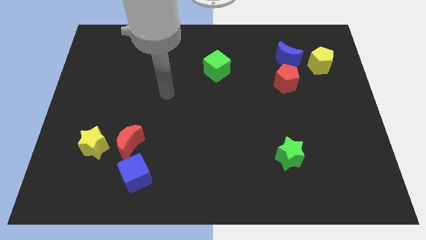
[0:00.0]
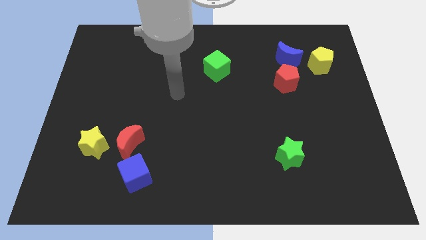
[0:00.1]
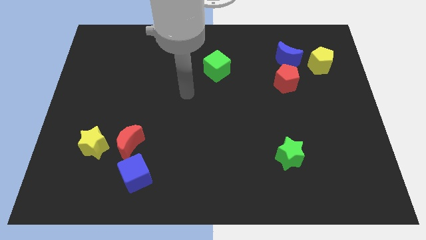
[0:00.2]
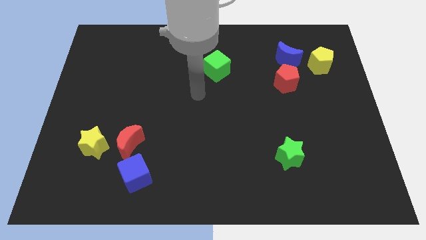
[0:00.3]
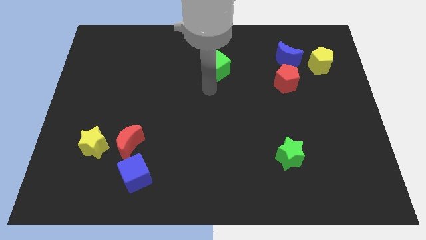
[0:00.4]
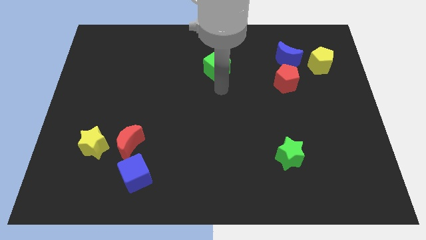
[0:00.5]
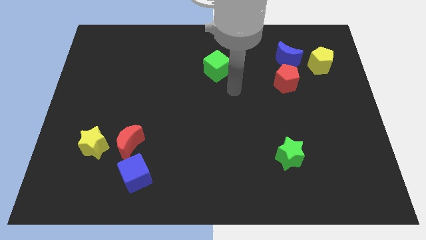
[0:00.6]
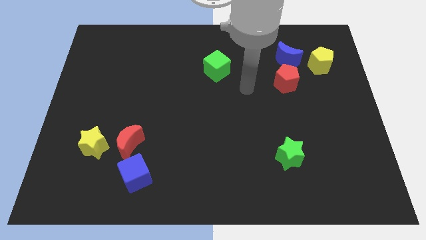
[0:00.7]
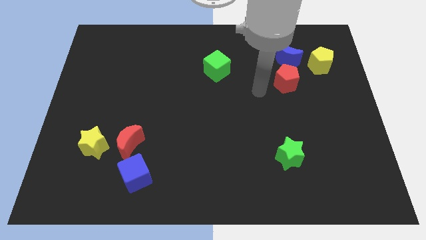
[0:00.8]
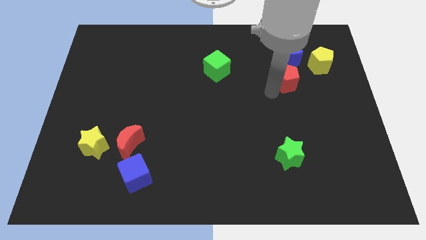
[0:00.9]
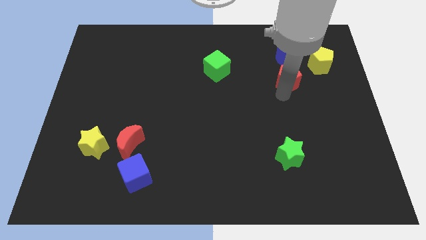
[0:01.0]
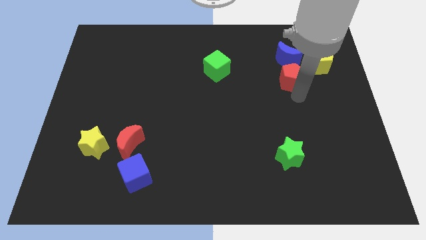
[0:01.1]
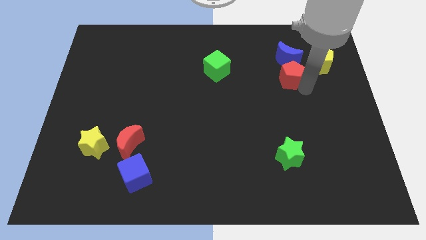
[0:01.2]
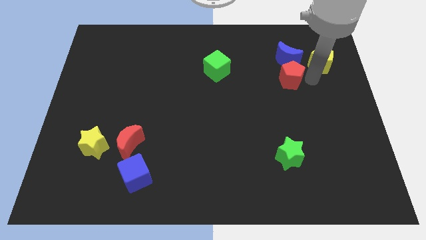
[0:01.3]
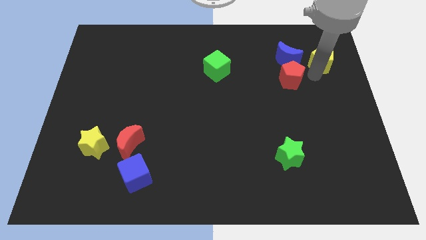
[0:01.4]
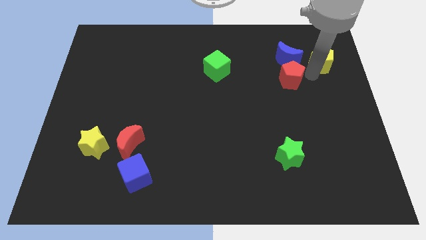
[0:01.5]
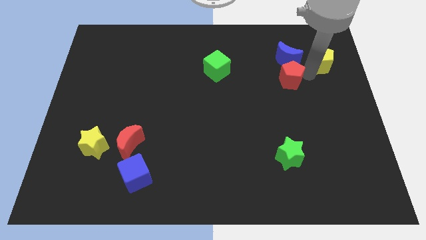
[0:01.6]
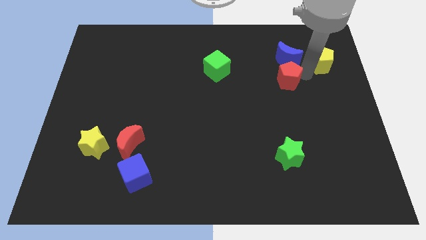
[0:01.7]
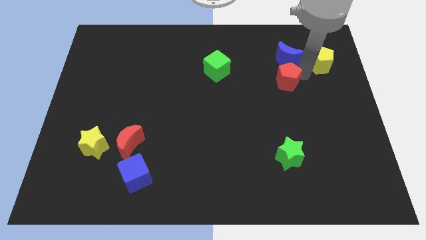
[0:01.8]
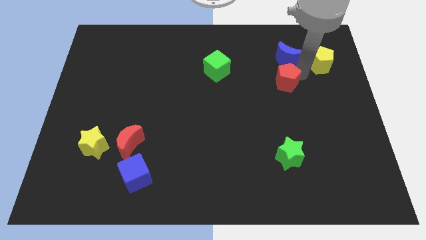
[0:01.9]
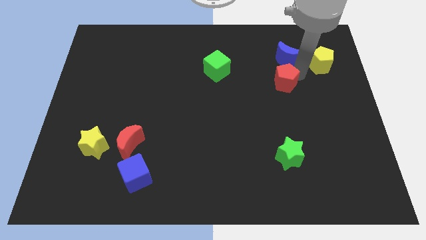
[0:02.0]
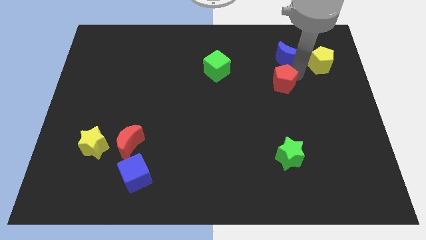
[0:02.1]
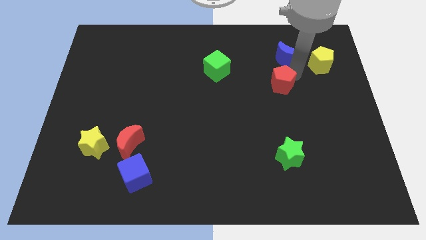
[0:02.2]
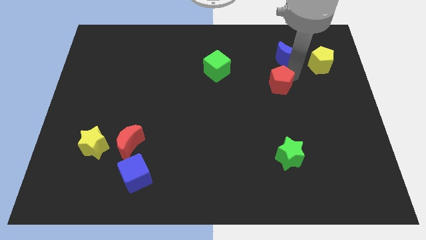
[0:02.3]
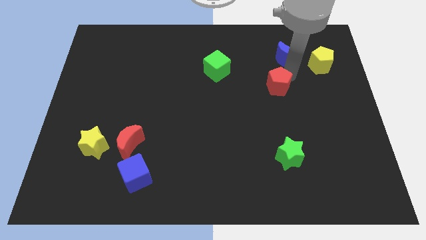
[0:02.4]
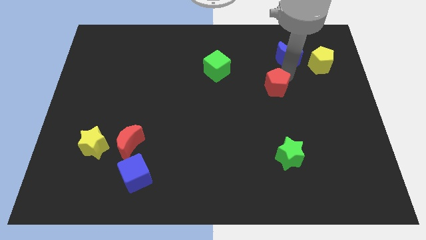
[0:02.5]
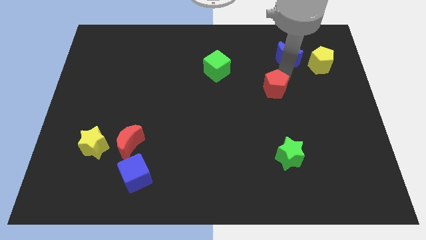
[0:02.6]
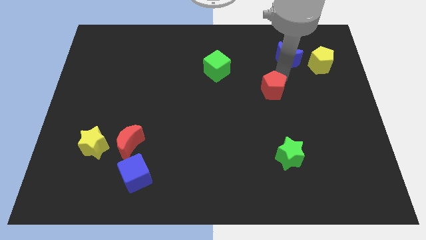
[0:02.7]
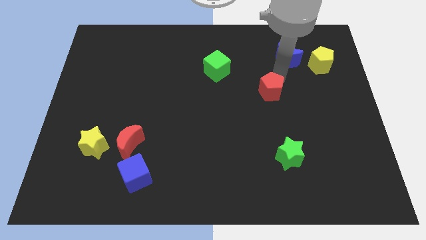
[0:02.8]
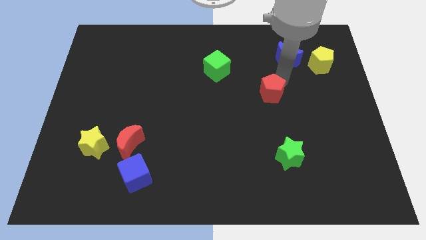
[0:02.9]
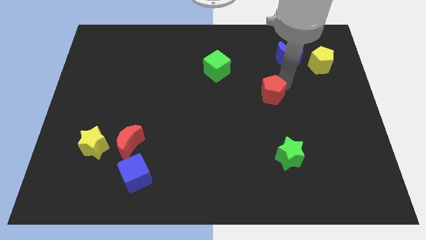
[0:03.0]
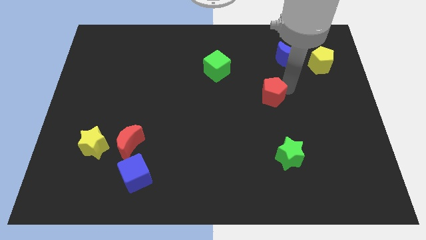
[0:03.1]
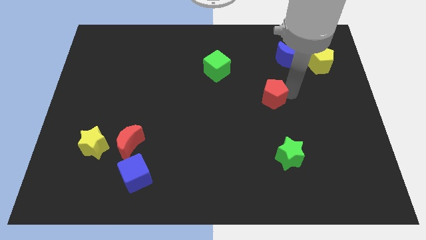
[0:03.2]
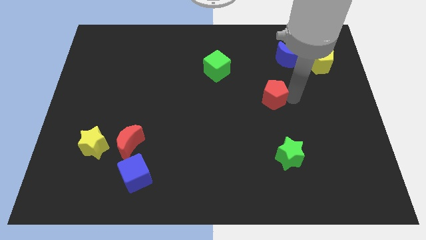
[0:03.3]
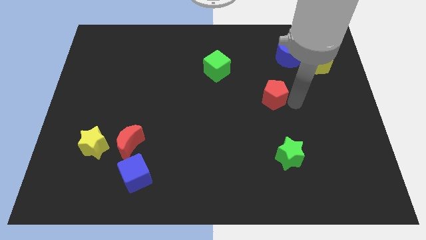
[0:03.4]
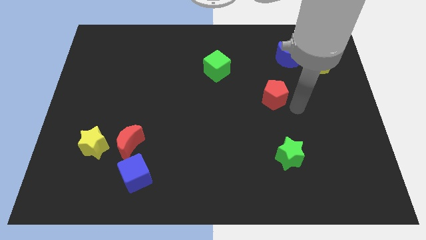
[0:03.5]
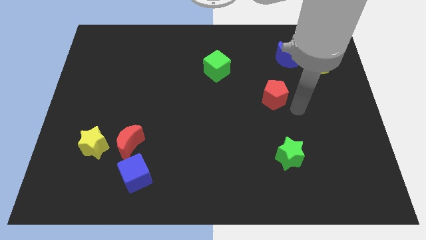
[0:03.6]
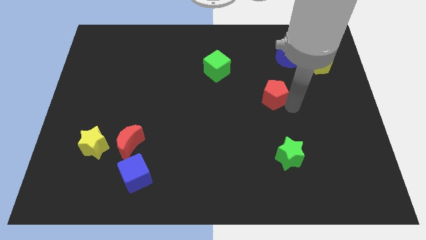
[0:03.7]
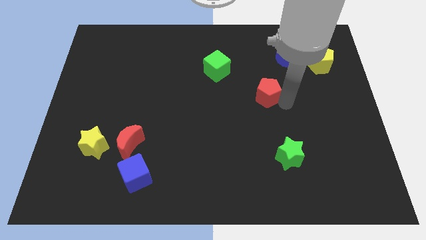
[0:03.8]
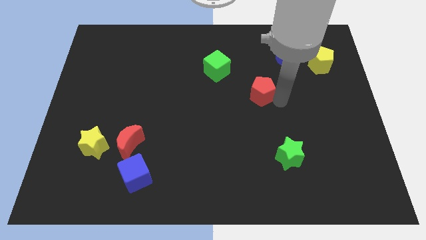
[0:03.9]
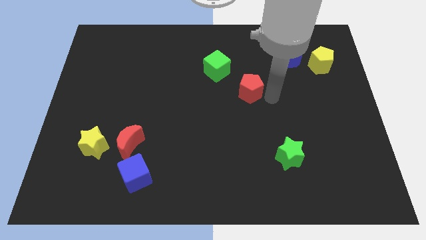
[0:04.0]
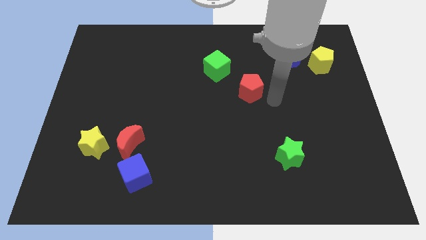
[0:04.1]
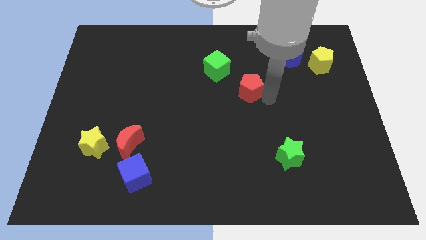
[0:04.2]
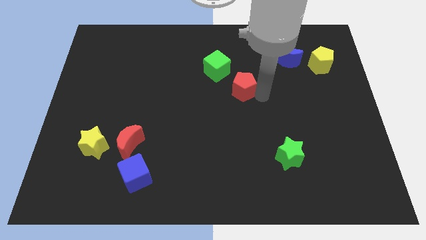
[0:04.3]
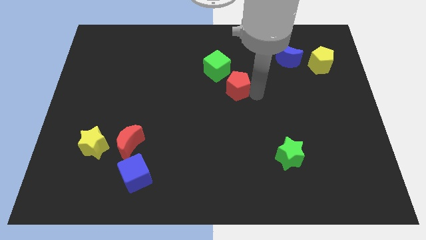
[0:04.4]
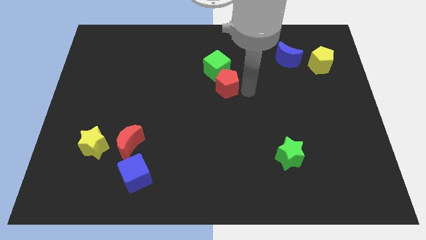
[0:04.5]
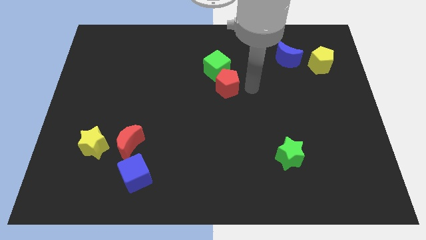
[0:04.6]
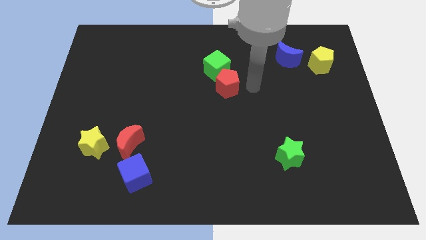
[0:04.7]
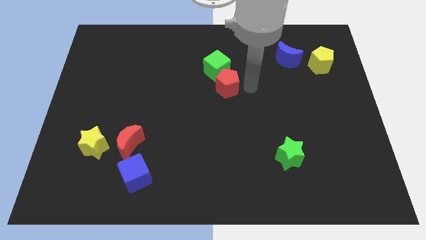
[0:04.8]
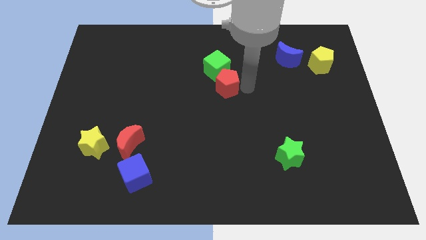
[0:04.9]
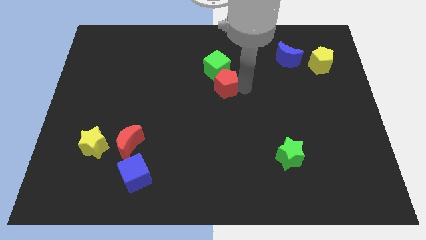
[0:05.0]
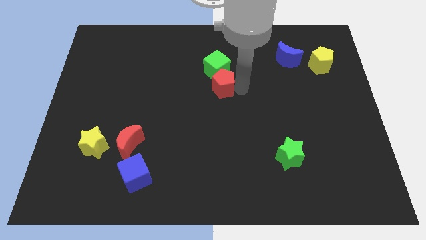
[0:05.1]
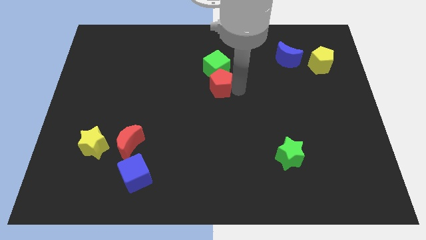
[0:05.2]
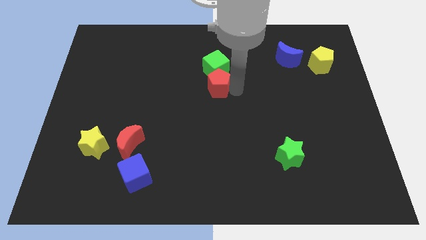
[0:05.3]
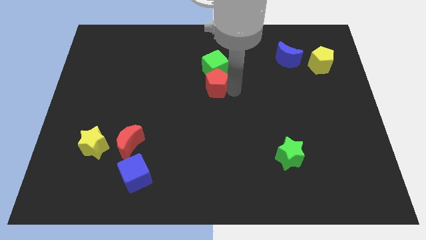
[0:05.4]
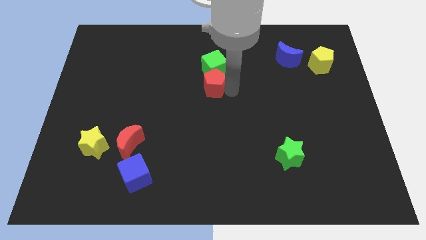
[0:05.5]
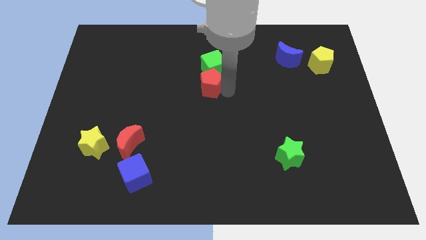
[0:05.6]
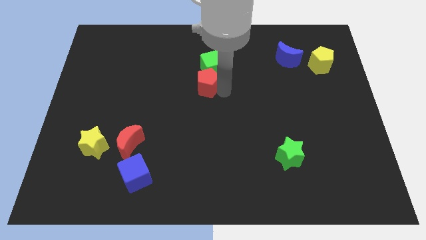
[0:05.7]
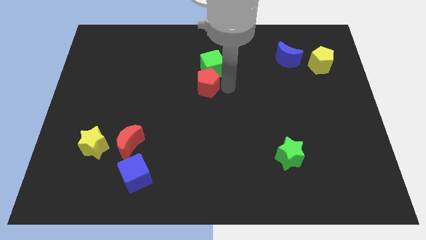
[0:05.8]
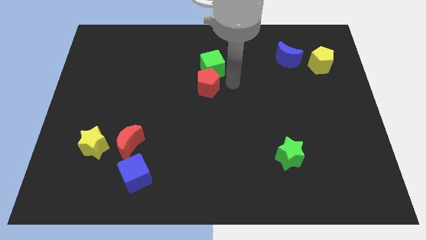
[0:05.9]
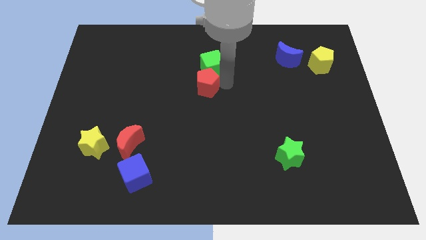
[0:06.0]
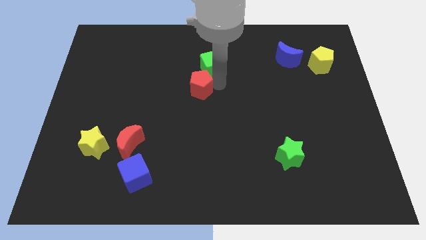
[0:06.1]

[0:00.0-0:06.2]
slide the red pentagon left

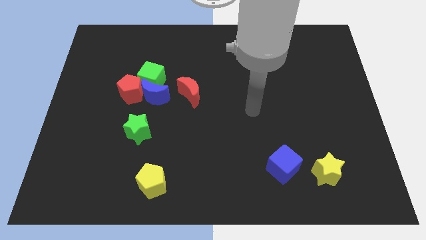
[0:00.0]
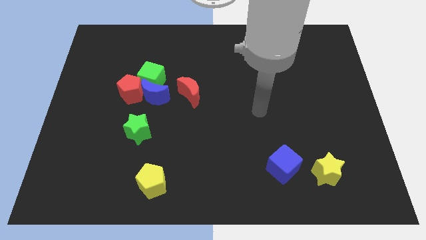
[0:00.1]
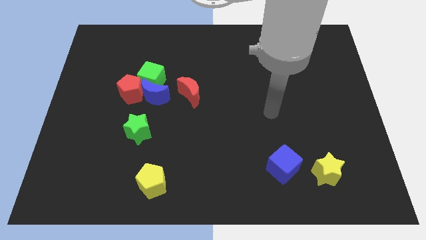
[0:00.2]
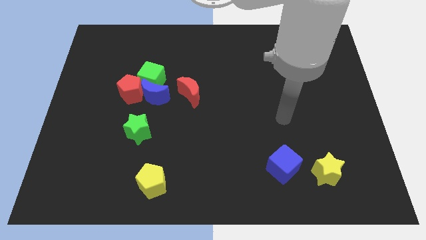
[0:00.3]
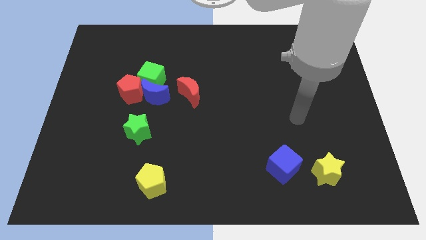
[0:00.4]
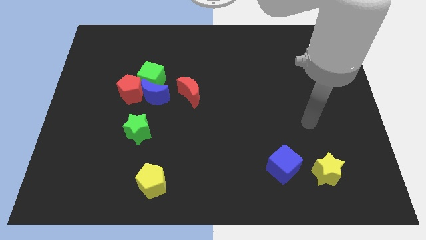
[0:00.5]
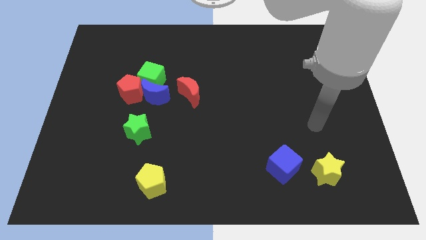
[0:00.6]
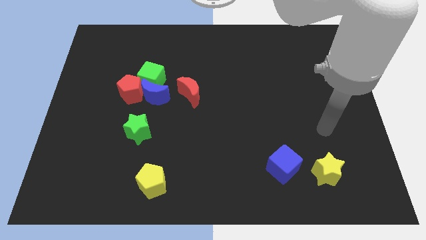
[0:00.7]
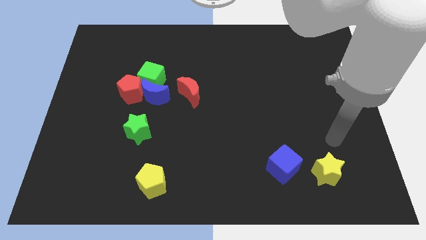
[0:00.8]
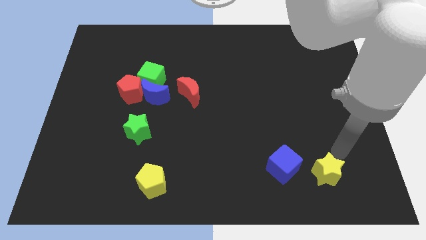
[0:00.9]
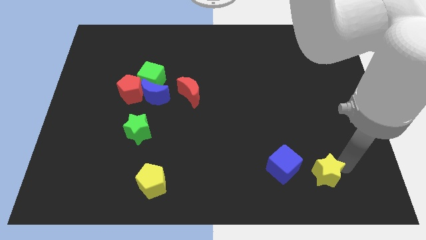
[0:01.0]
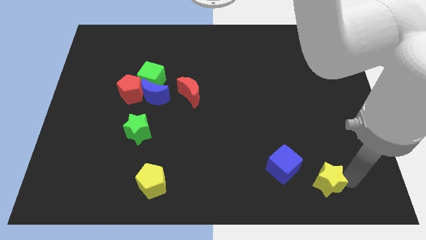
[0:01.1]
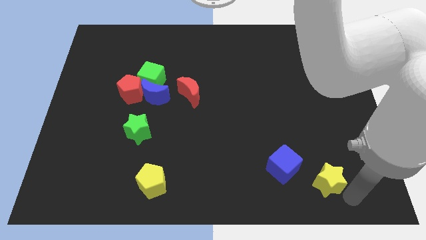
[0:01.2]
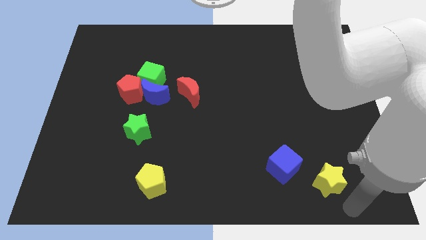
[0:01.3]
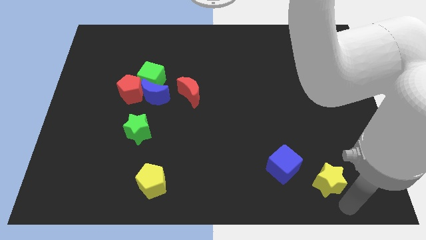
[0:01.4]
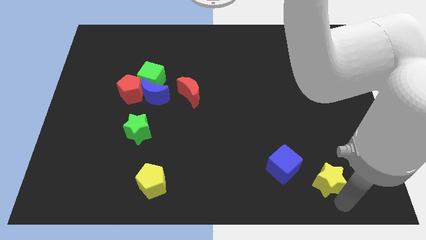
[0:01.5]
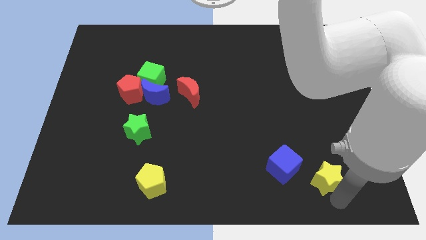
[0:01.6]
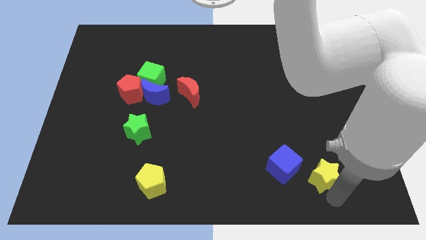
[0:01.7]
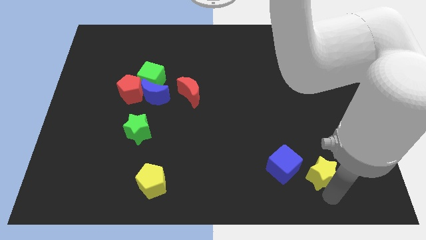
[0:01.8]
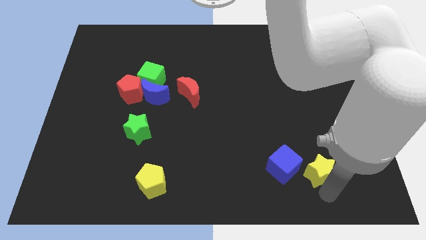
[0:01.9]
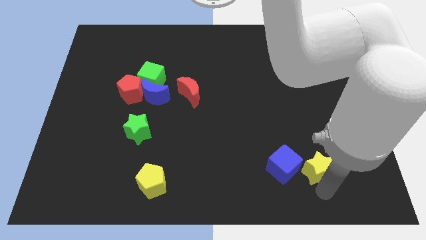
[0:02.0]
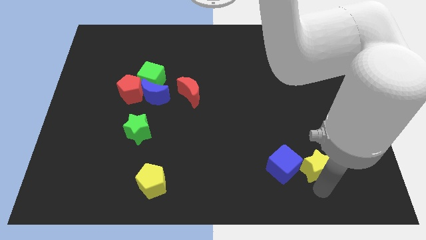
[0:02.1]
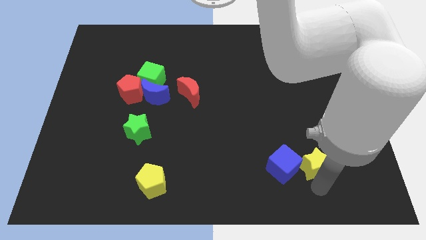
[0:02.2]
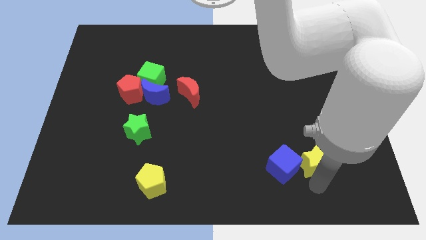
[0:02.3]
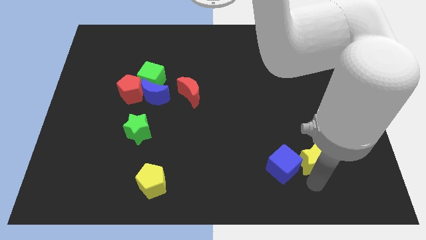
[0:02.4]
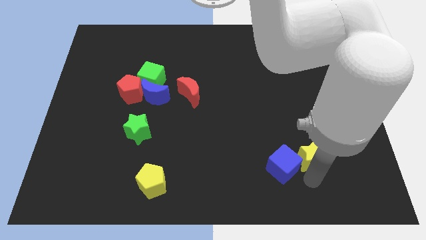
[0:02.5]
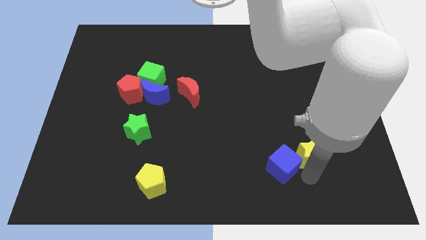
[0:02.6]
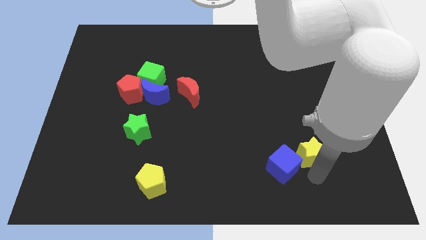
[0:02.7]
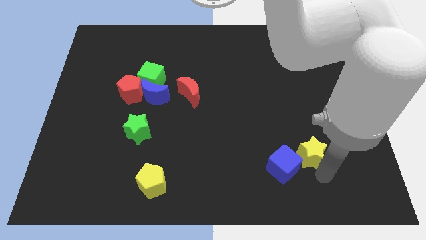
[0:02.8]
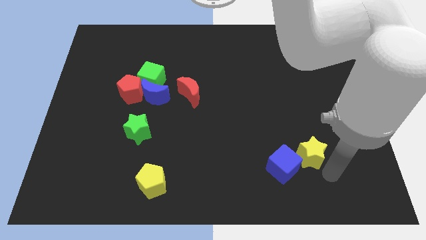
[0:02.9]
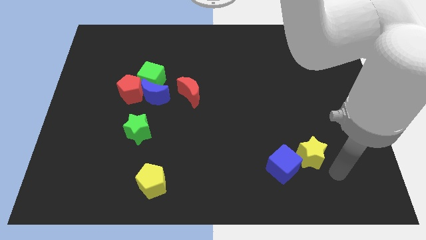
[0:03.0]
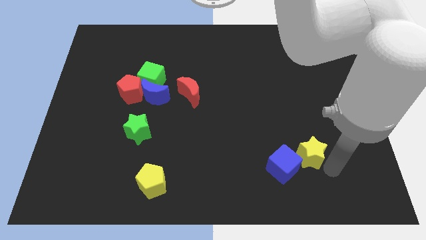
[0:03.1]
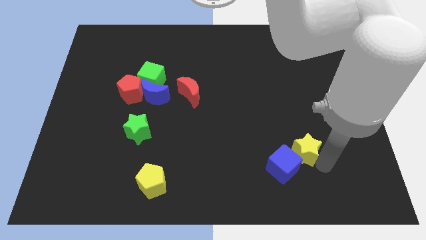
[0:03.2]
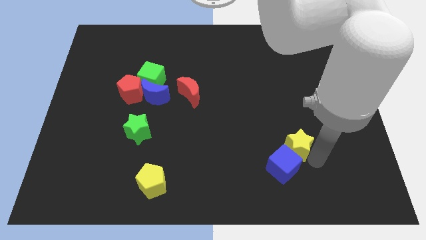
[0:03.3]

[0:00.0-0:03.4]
push the yellow star diagonally up and left somewhat
